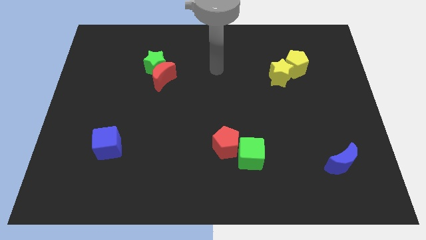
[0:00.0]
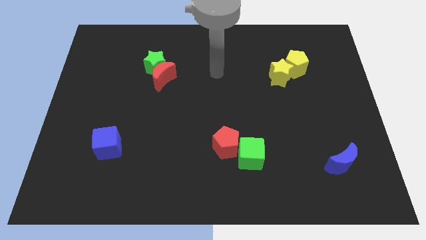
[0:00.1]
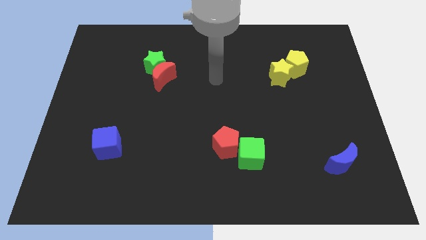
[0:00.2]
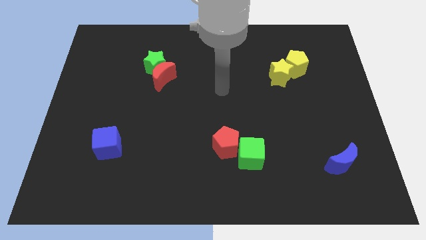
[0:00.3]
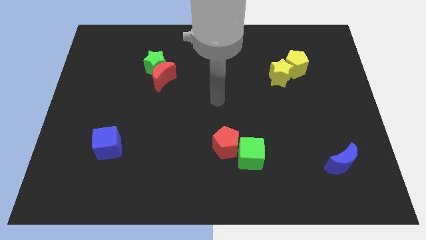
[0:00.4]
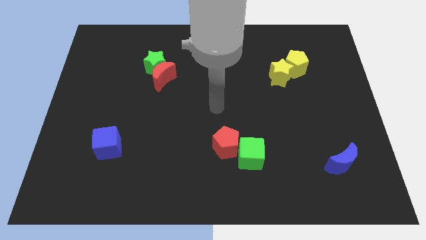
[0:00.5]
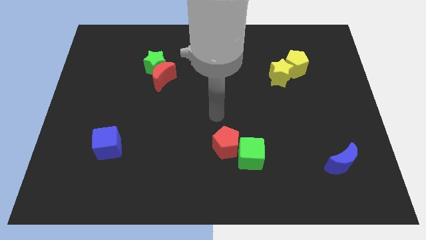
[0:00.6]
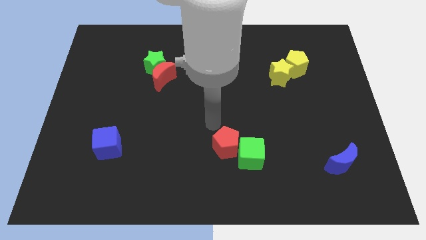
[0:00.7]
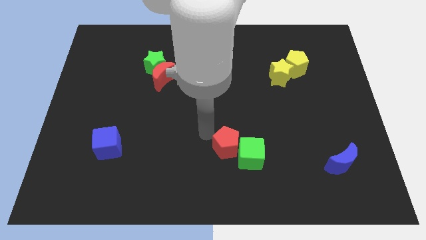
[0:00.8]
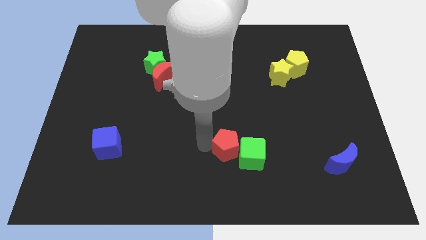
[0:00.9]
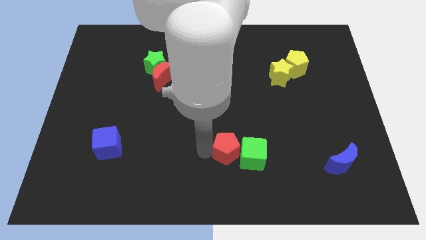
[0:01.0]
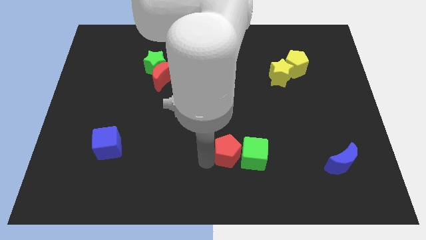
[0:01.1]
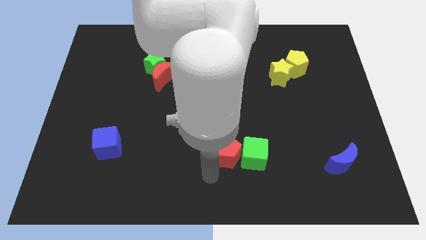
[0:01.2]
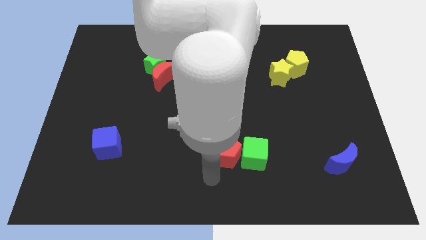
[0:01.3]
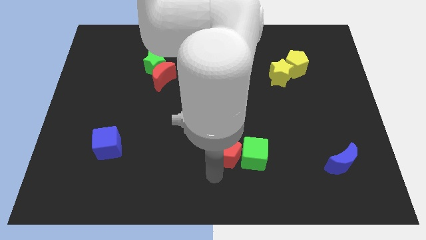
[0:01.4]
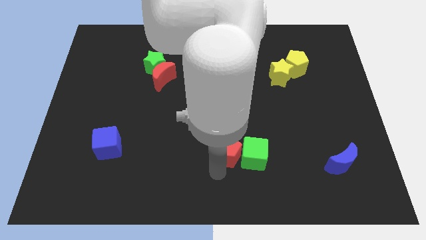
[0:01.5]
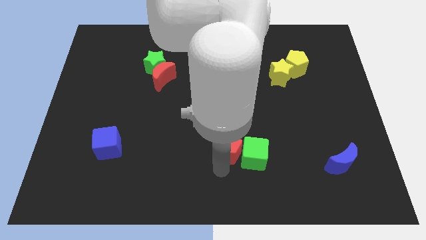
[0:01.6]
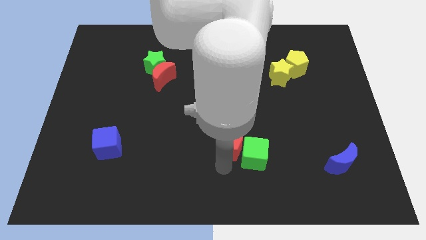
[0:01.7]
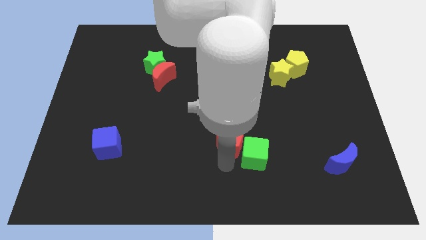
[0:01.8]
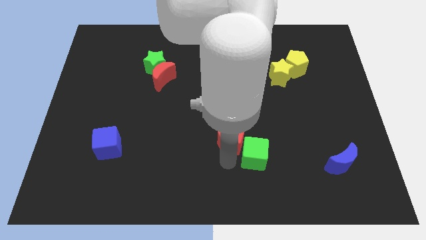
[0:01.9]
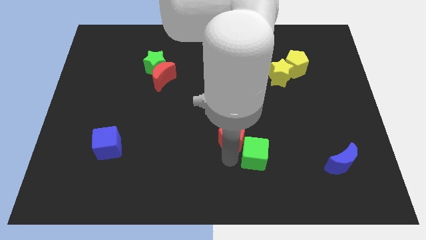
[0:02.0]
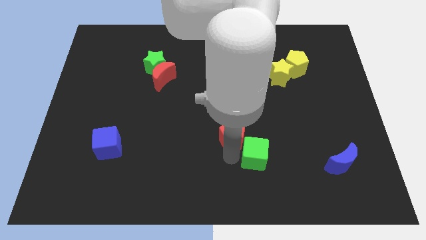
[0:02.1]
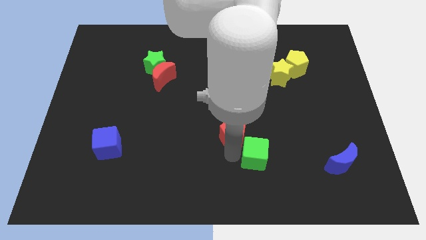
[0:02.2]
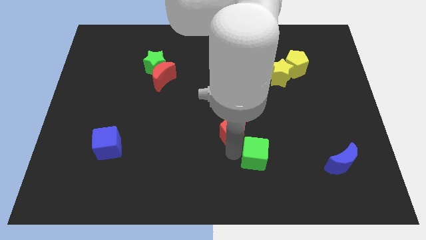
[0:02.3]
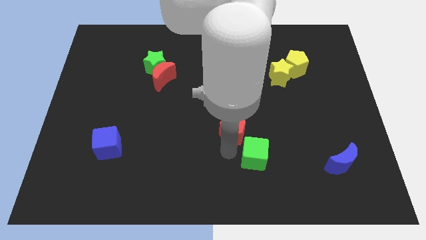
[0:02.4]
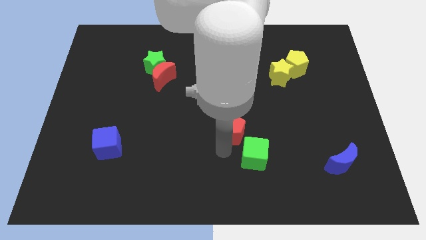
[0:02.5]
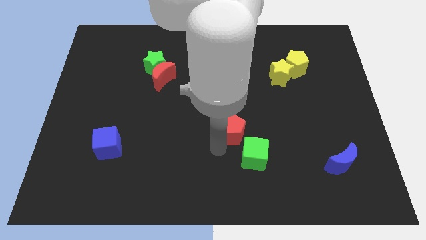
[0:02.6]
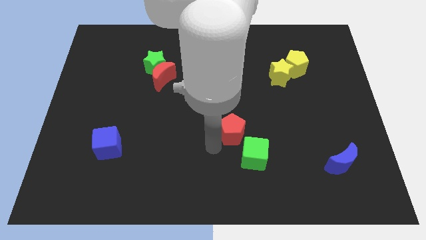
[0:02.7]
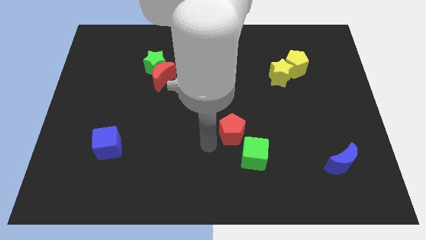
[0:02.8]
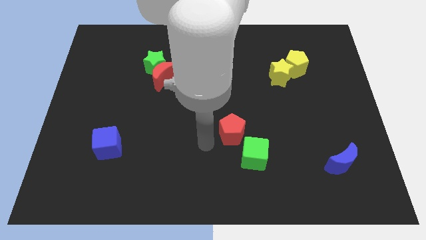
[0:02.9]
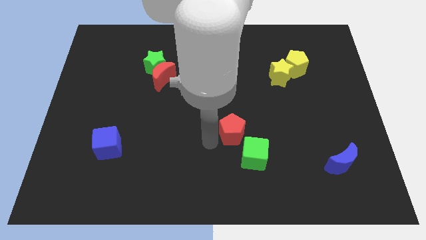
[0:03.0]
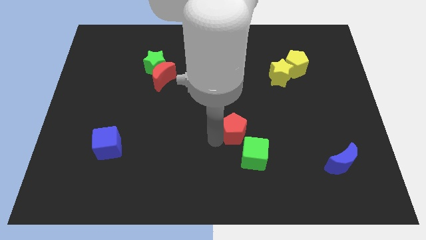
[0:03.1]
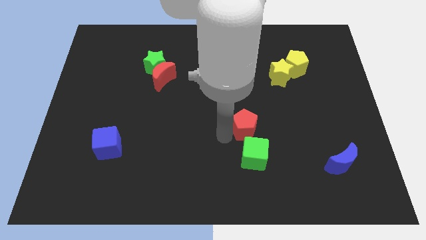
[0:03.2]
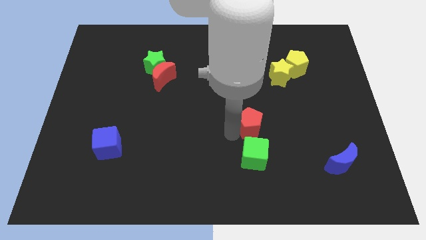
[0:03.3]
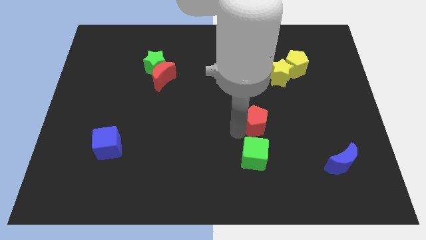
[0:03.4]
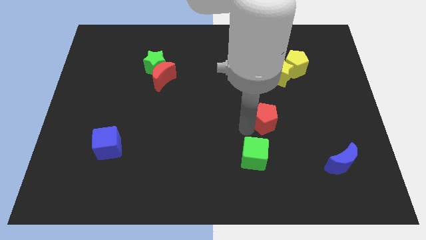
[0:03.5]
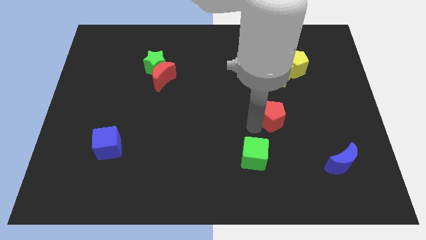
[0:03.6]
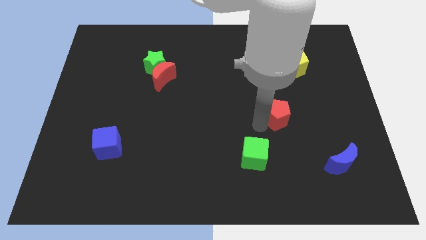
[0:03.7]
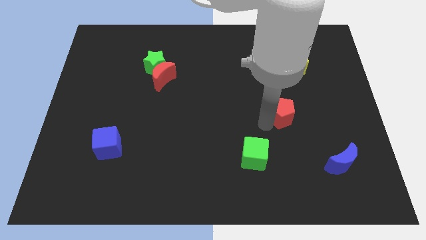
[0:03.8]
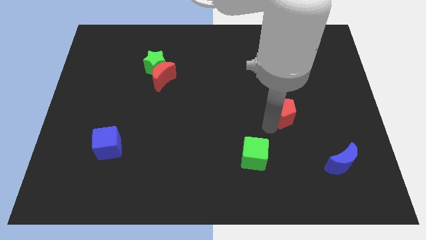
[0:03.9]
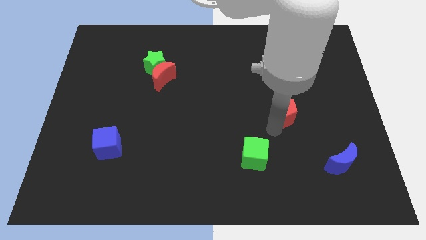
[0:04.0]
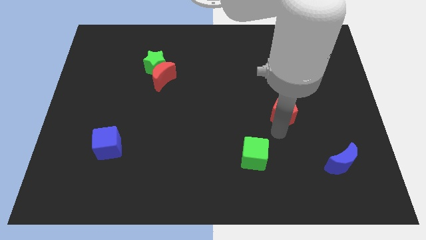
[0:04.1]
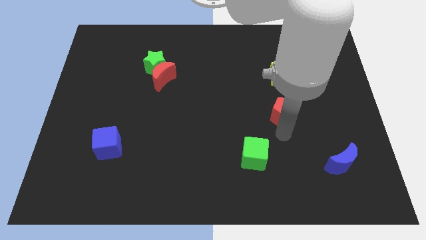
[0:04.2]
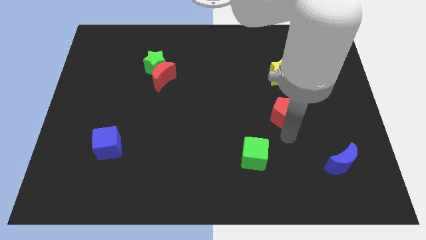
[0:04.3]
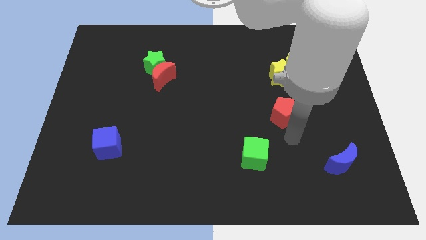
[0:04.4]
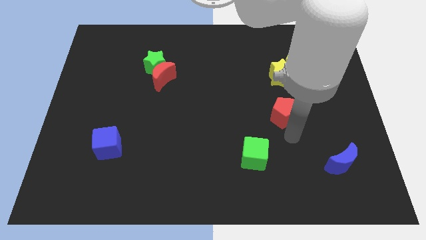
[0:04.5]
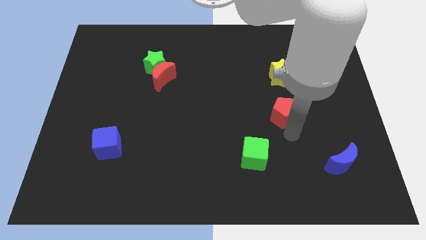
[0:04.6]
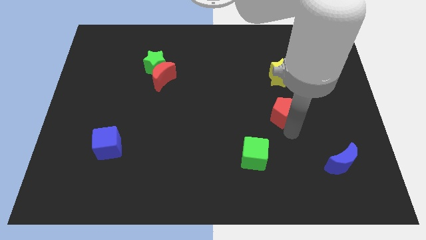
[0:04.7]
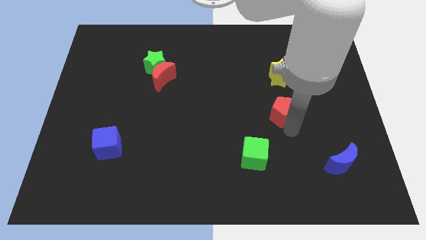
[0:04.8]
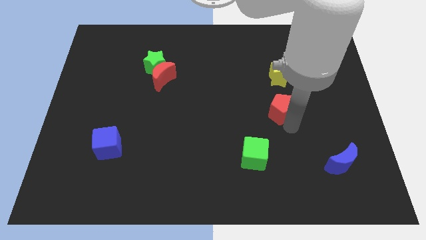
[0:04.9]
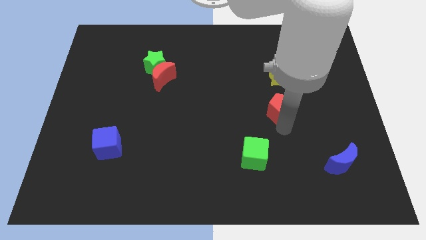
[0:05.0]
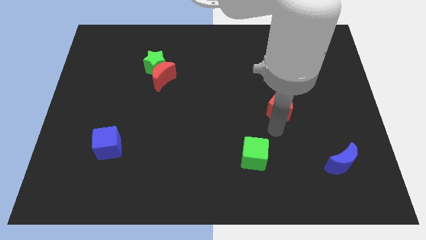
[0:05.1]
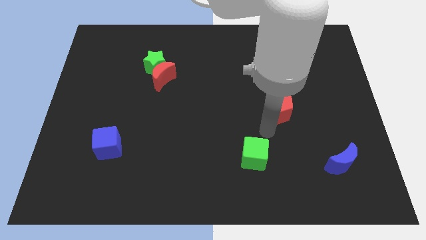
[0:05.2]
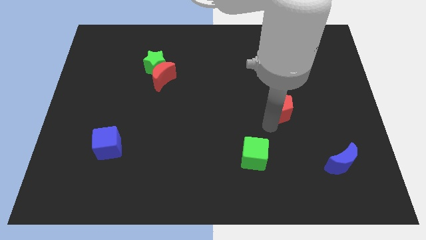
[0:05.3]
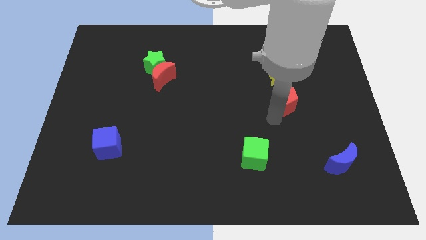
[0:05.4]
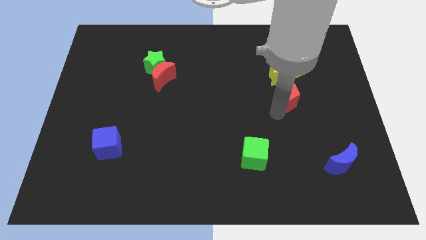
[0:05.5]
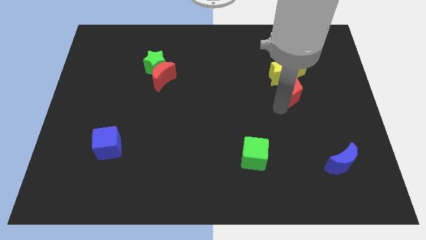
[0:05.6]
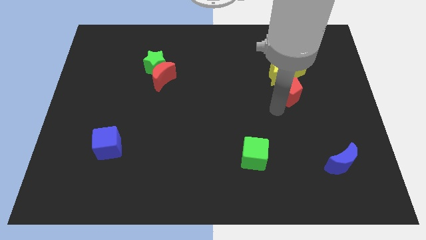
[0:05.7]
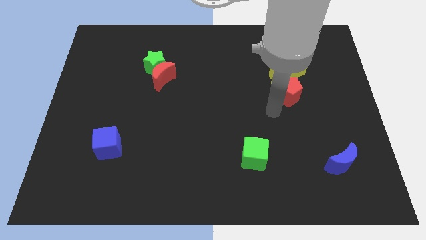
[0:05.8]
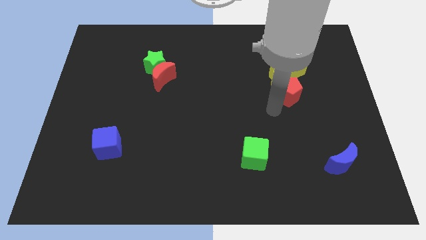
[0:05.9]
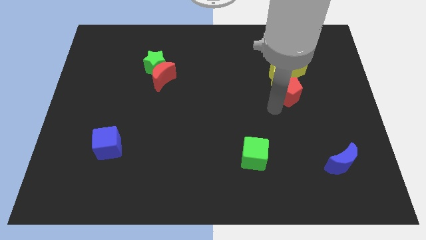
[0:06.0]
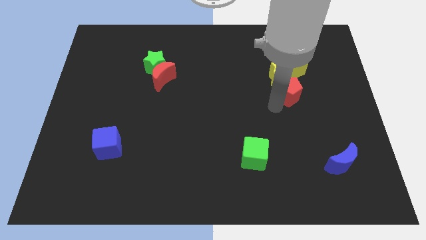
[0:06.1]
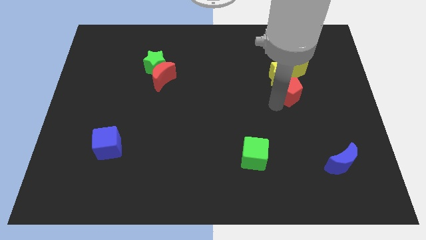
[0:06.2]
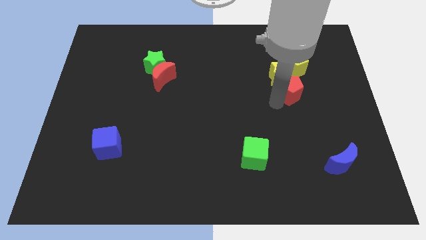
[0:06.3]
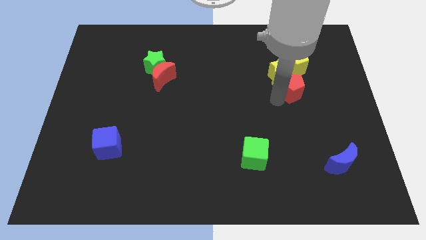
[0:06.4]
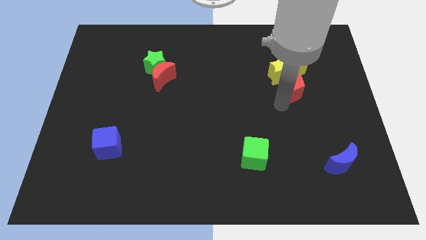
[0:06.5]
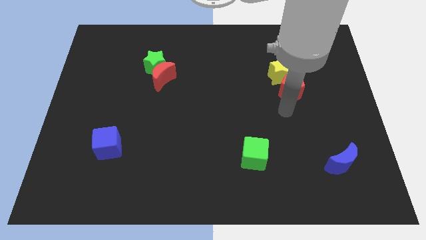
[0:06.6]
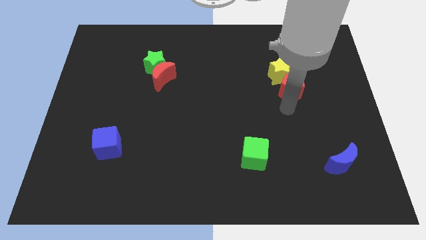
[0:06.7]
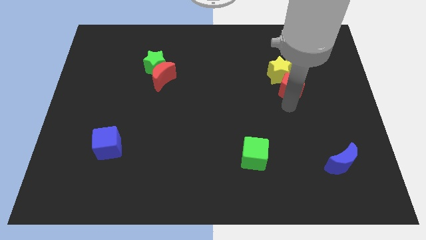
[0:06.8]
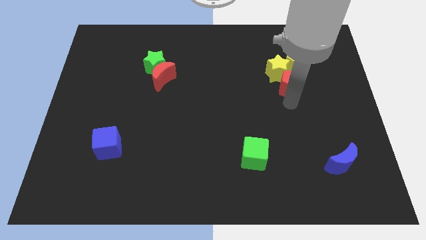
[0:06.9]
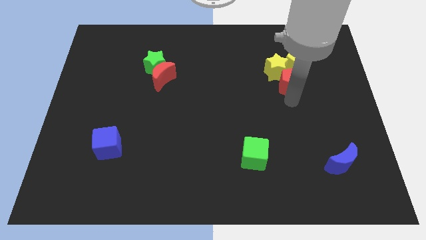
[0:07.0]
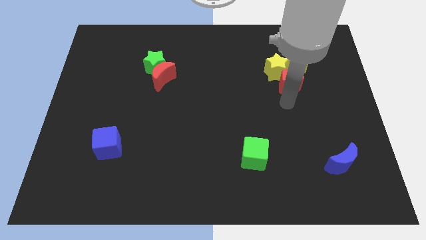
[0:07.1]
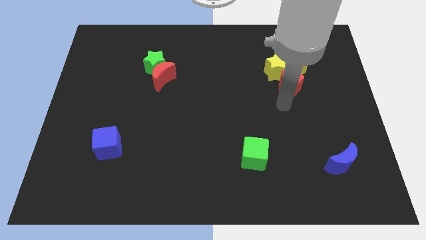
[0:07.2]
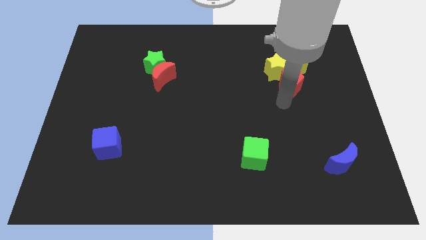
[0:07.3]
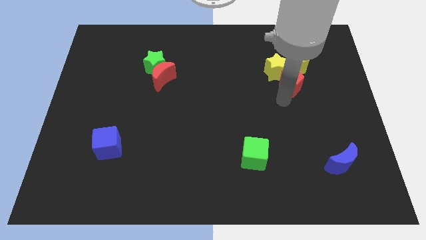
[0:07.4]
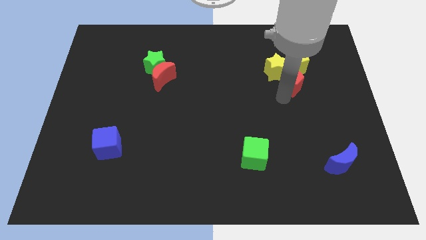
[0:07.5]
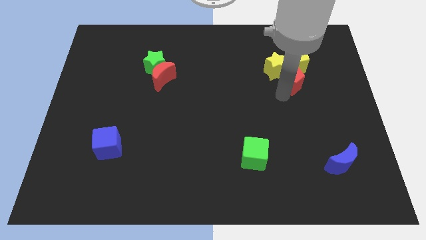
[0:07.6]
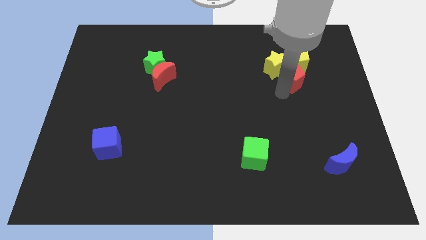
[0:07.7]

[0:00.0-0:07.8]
put the red pentagon close to the yellow pentagon
